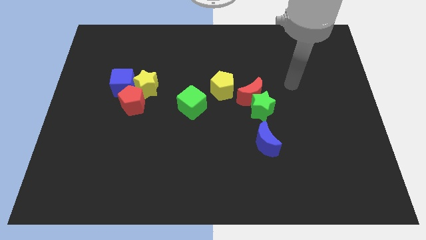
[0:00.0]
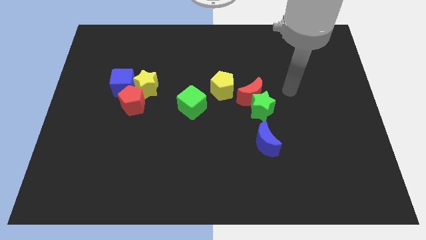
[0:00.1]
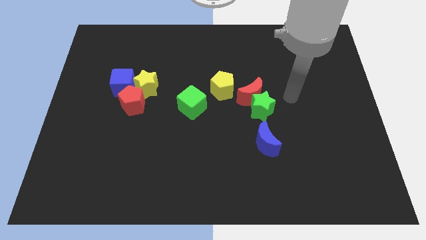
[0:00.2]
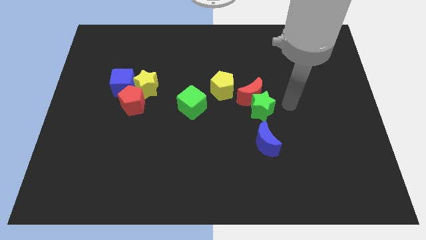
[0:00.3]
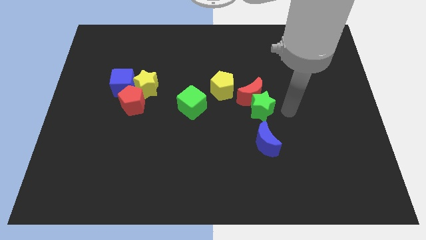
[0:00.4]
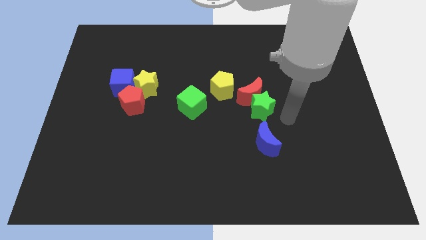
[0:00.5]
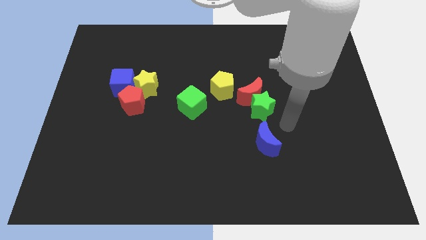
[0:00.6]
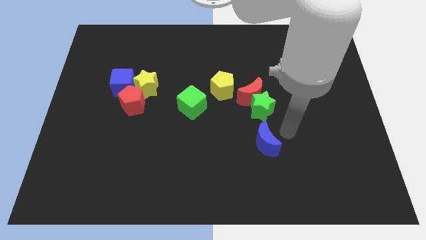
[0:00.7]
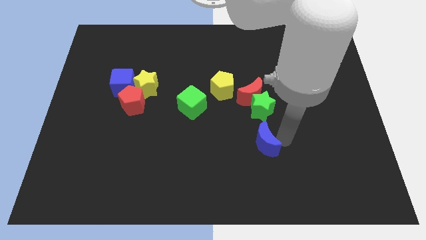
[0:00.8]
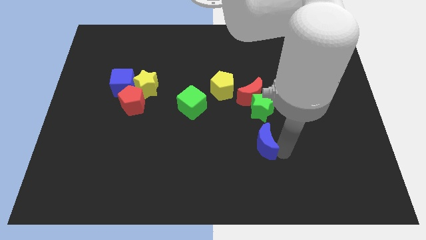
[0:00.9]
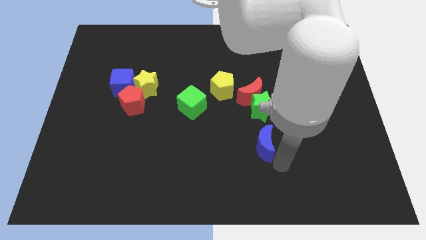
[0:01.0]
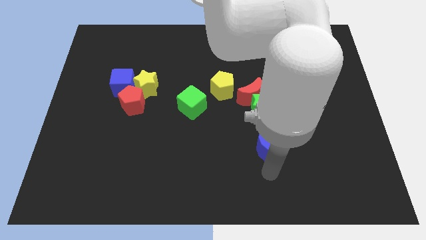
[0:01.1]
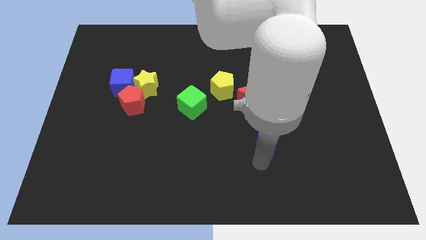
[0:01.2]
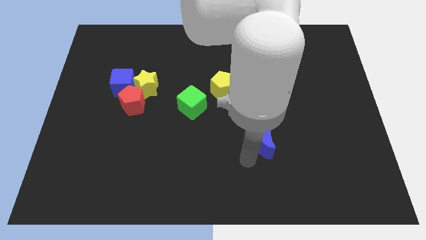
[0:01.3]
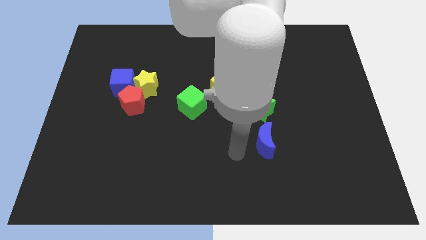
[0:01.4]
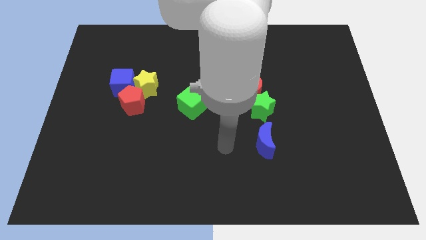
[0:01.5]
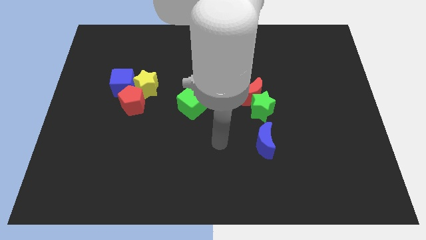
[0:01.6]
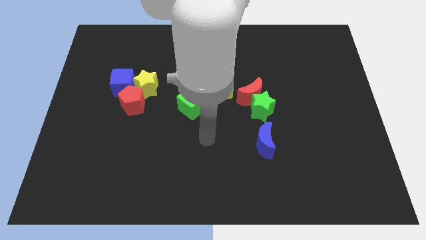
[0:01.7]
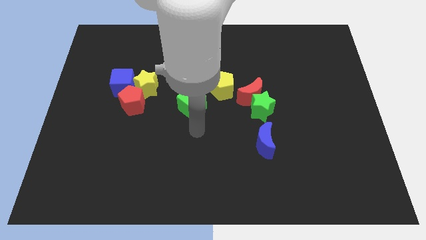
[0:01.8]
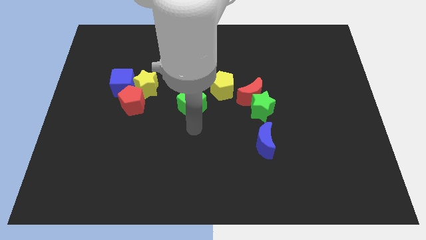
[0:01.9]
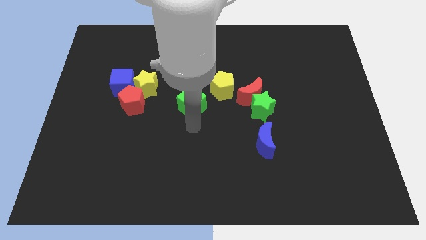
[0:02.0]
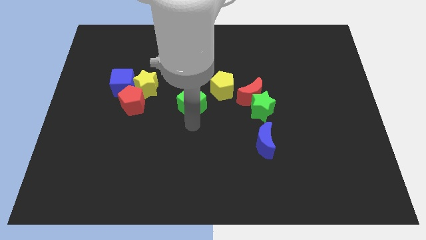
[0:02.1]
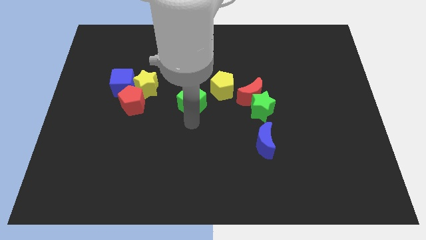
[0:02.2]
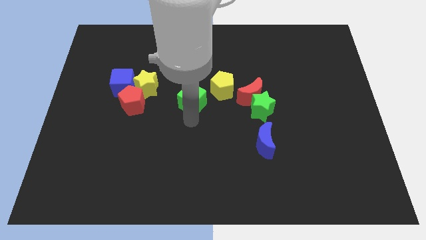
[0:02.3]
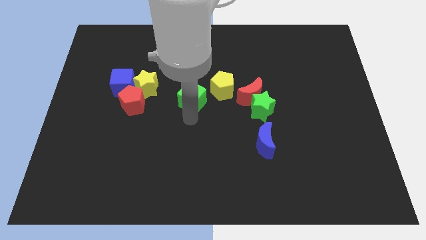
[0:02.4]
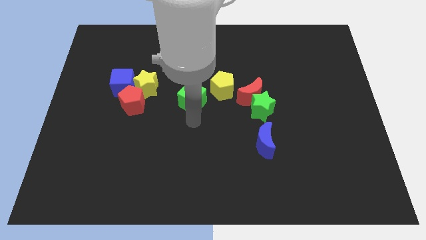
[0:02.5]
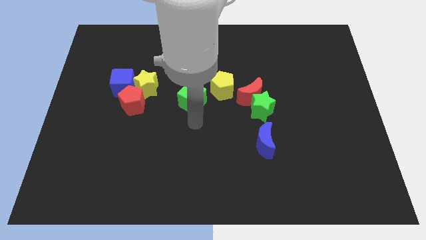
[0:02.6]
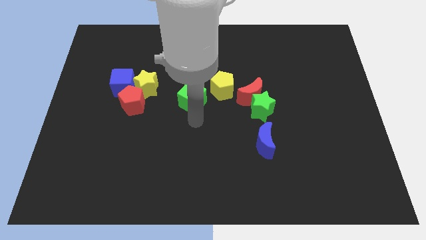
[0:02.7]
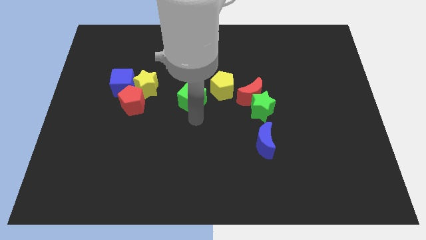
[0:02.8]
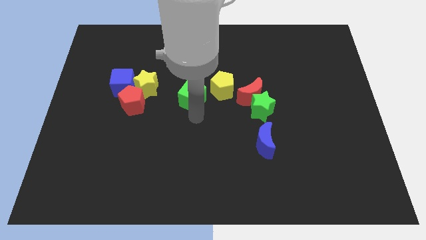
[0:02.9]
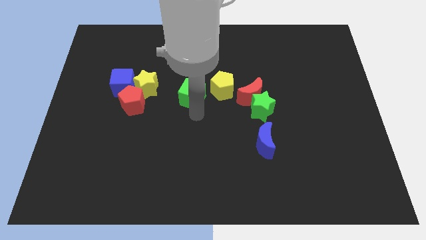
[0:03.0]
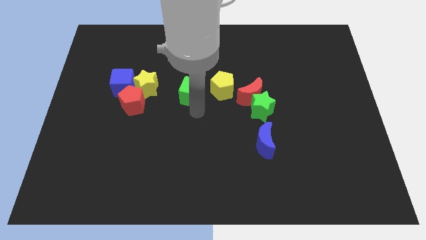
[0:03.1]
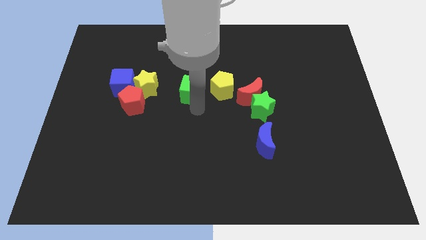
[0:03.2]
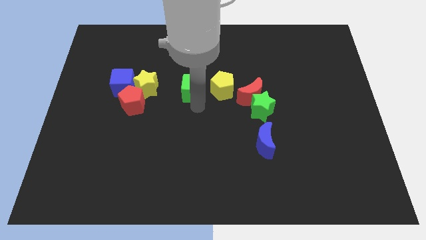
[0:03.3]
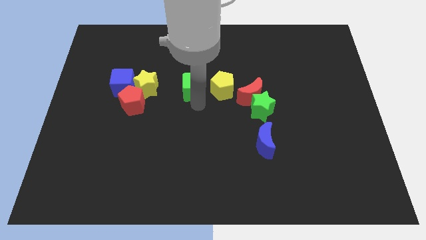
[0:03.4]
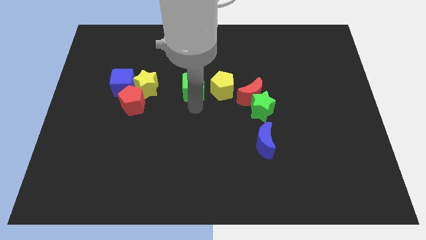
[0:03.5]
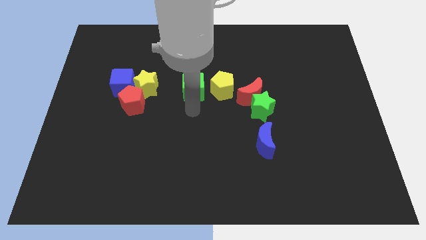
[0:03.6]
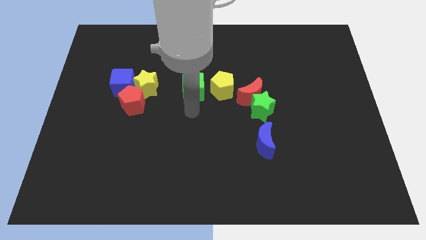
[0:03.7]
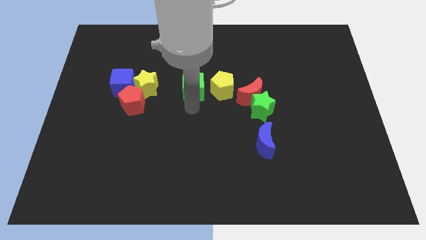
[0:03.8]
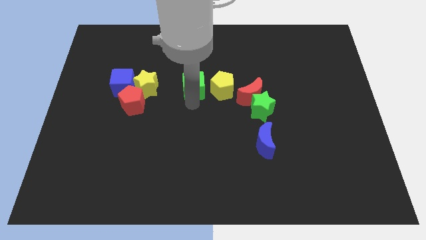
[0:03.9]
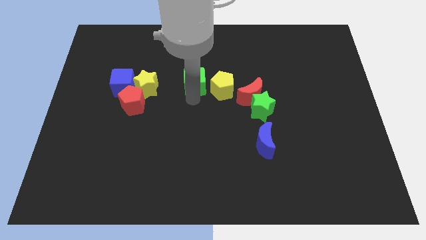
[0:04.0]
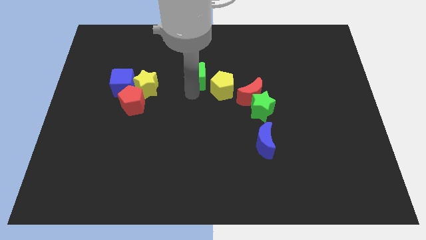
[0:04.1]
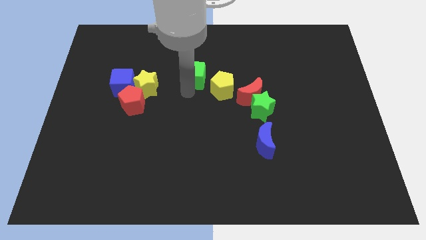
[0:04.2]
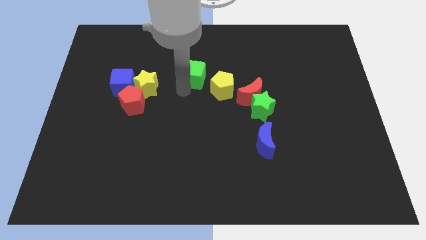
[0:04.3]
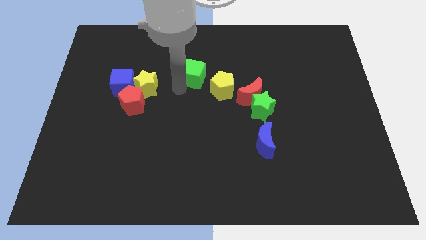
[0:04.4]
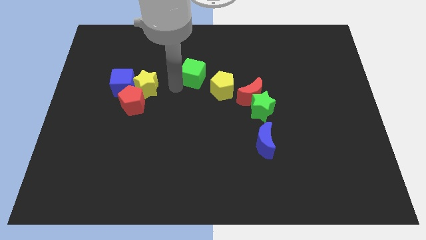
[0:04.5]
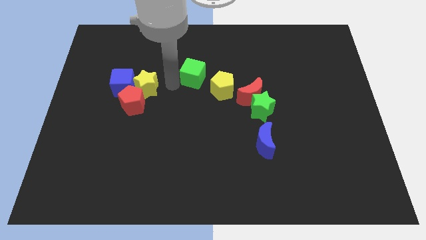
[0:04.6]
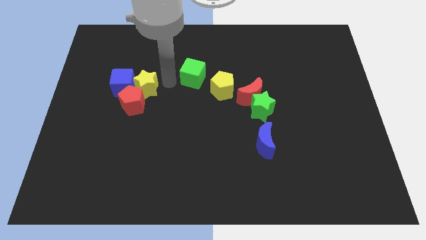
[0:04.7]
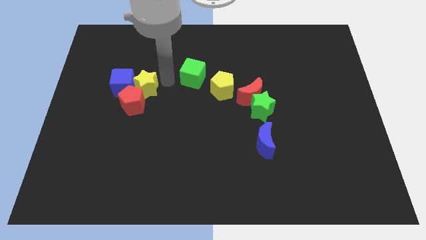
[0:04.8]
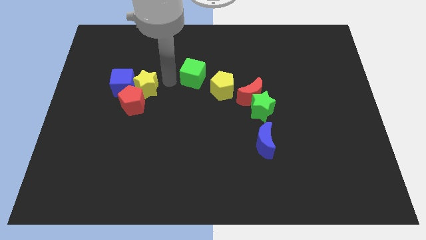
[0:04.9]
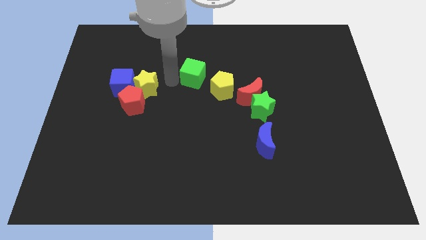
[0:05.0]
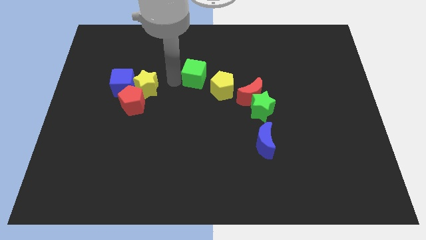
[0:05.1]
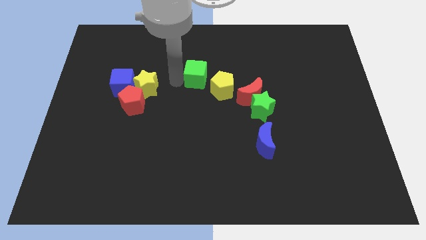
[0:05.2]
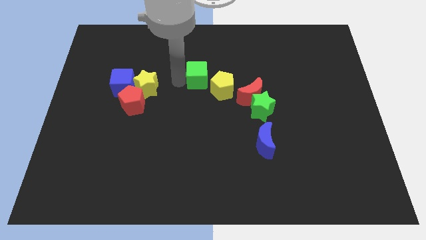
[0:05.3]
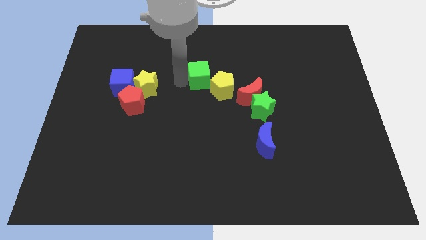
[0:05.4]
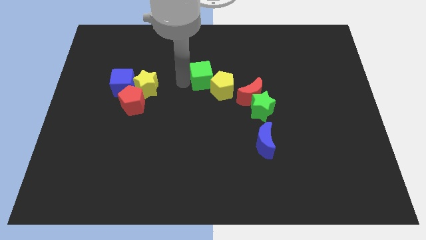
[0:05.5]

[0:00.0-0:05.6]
move the green cube slightly upwards and then to the right

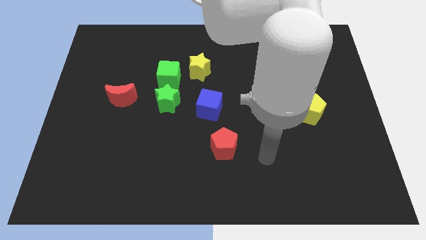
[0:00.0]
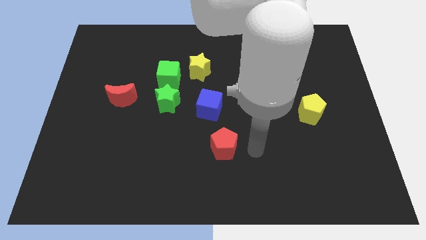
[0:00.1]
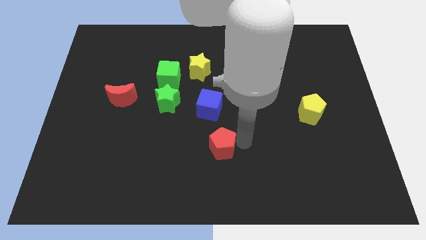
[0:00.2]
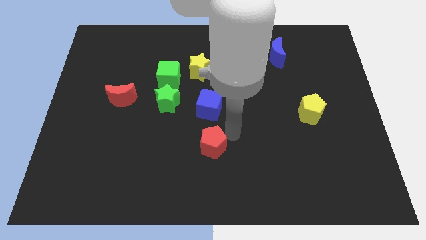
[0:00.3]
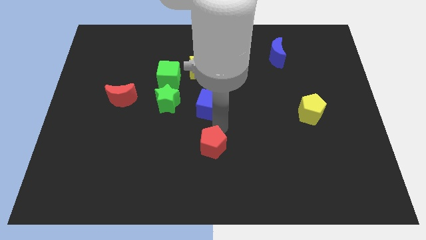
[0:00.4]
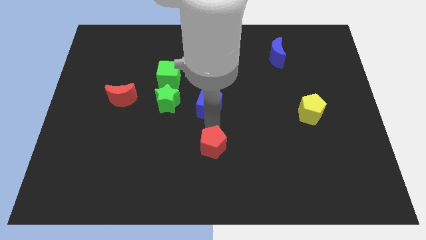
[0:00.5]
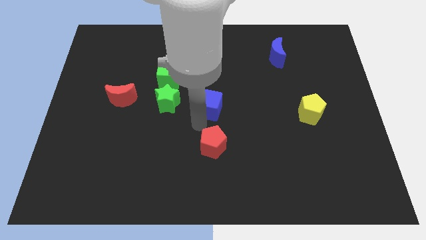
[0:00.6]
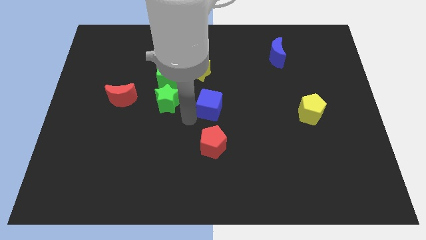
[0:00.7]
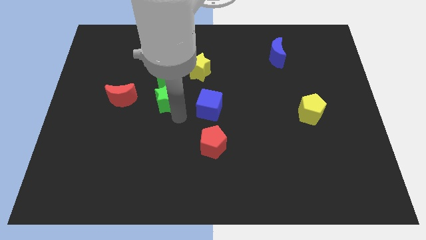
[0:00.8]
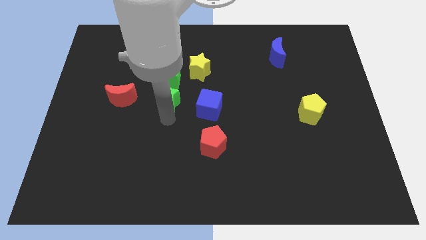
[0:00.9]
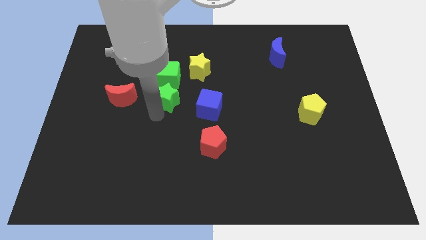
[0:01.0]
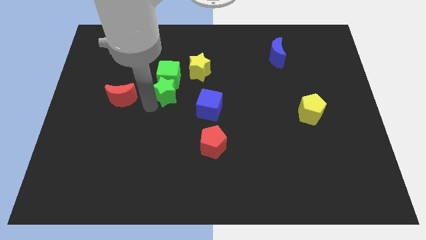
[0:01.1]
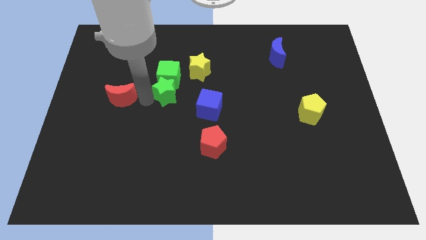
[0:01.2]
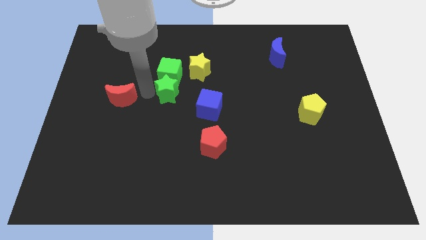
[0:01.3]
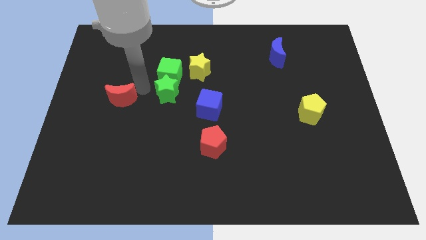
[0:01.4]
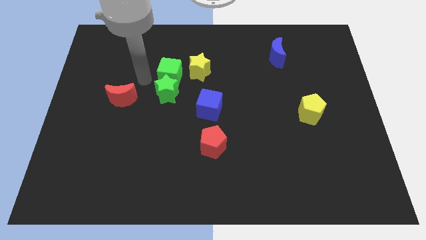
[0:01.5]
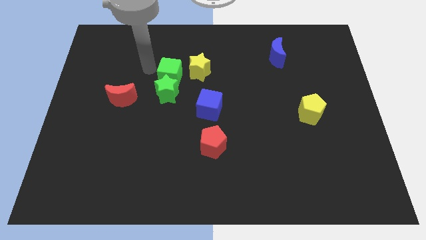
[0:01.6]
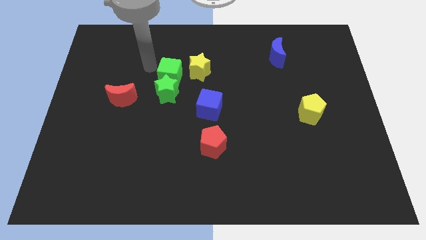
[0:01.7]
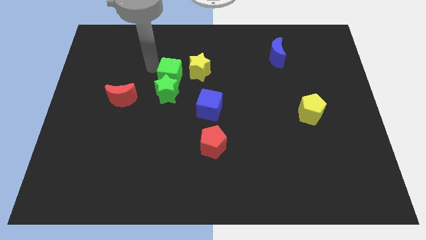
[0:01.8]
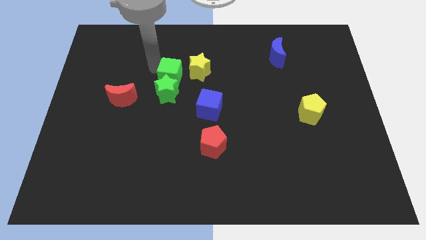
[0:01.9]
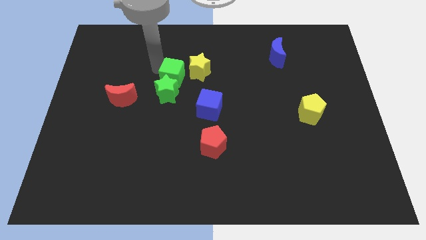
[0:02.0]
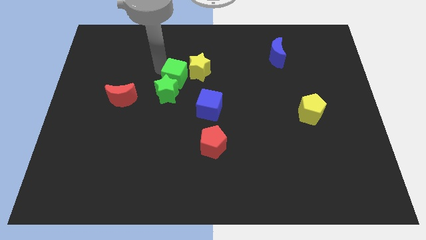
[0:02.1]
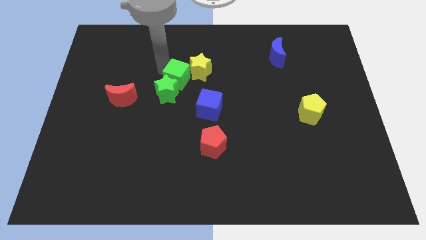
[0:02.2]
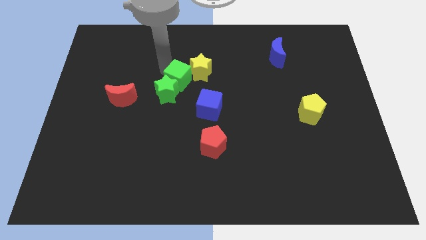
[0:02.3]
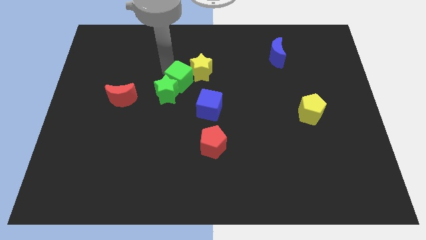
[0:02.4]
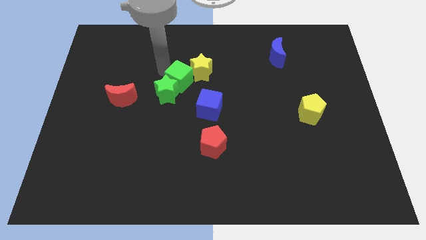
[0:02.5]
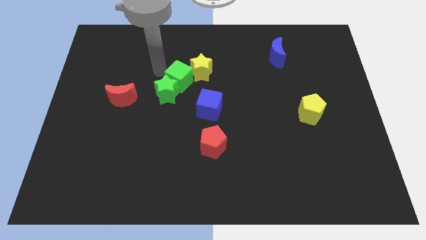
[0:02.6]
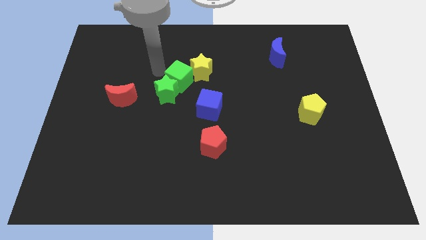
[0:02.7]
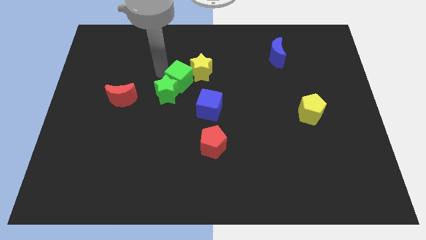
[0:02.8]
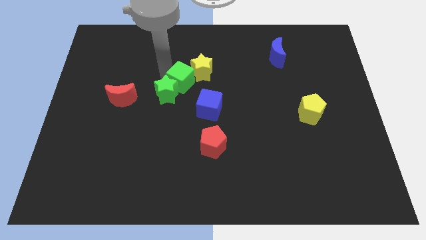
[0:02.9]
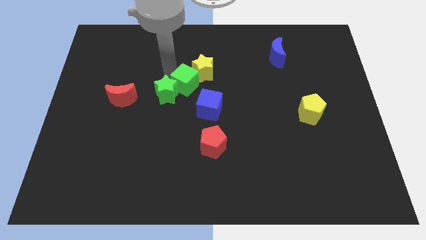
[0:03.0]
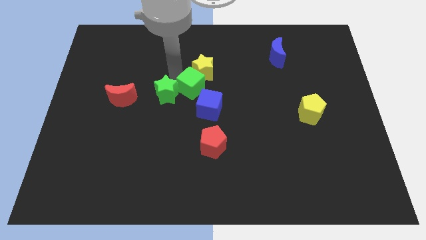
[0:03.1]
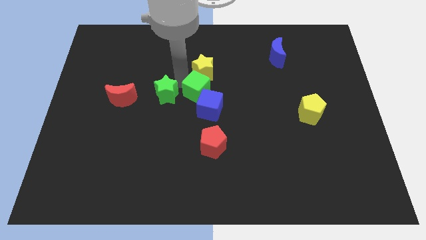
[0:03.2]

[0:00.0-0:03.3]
slightly move the green cube down and to the right diagonally
